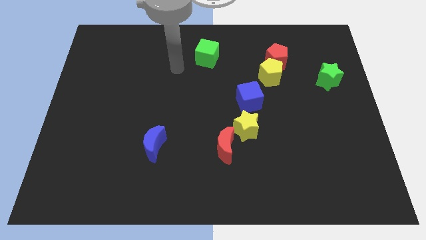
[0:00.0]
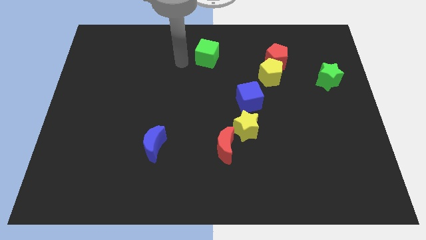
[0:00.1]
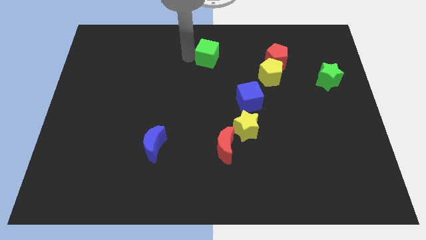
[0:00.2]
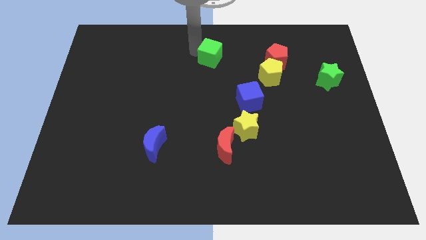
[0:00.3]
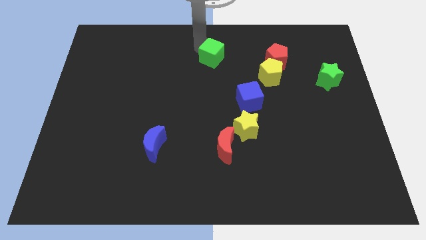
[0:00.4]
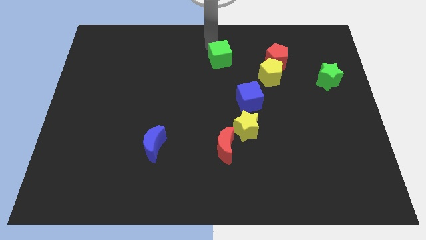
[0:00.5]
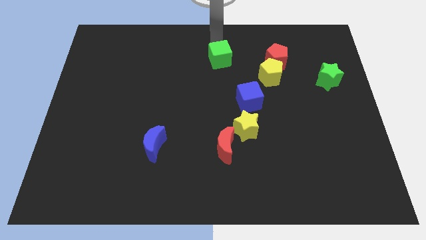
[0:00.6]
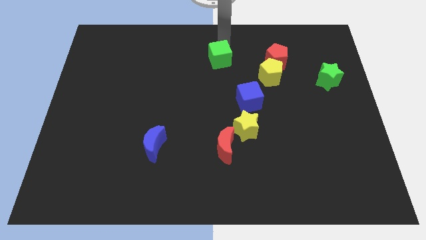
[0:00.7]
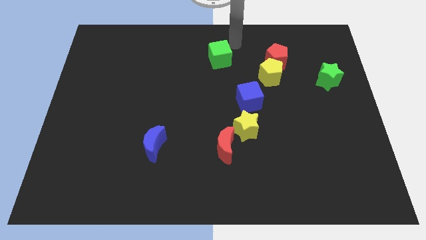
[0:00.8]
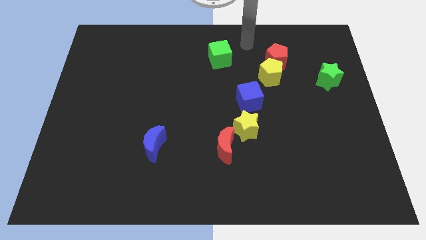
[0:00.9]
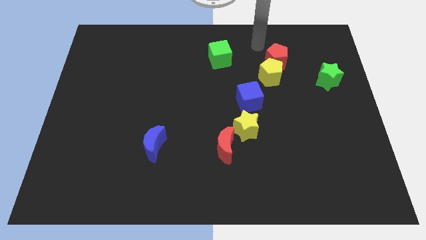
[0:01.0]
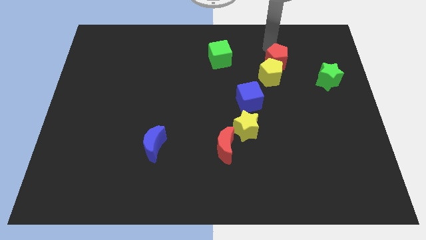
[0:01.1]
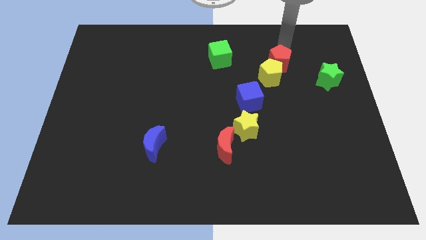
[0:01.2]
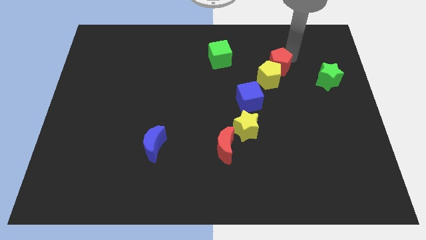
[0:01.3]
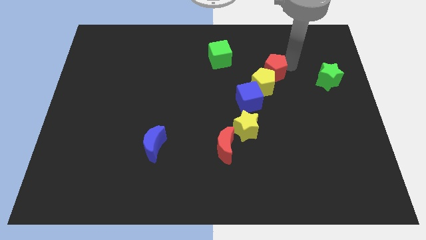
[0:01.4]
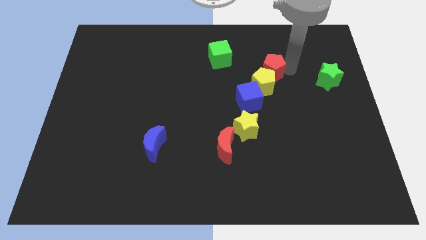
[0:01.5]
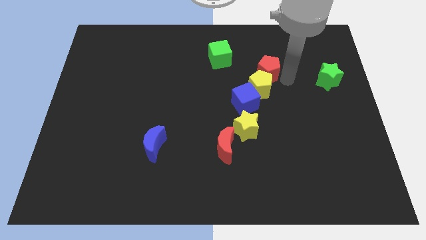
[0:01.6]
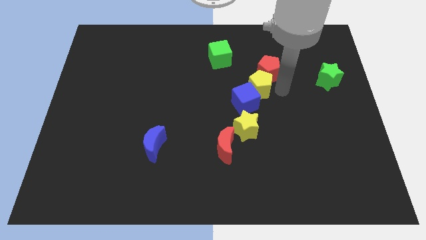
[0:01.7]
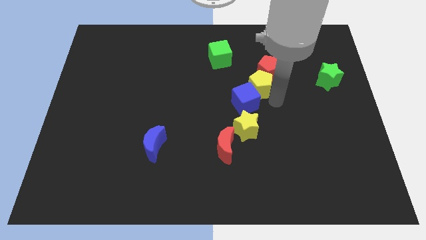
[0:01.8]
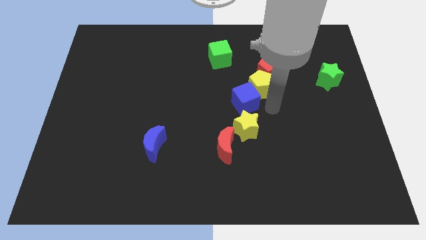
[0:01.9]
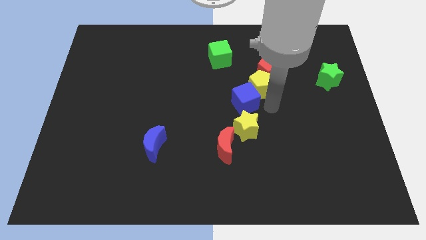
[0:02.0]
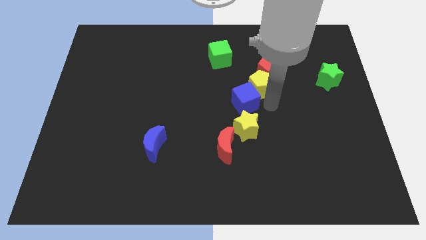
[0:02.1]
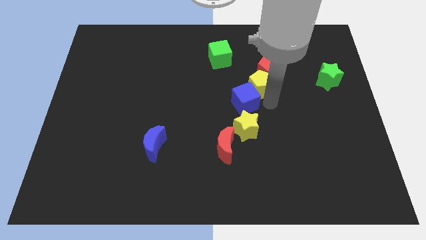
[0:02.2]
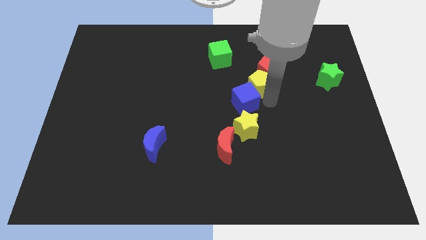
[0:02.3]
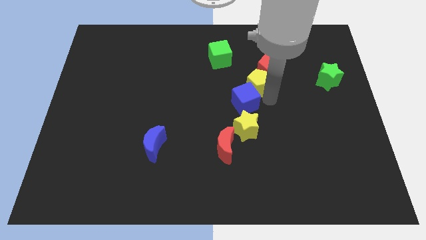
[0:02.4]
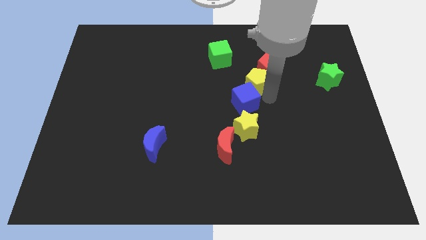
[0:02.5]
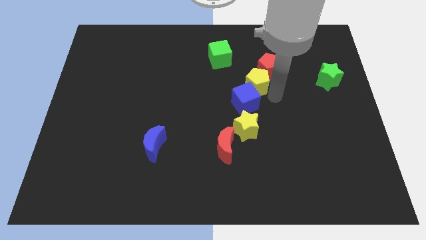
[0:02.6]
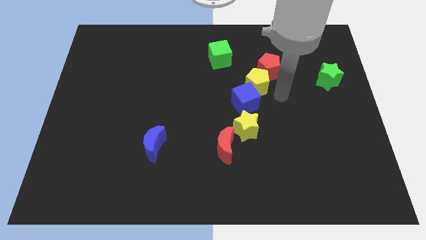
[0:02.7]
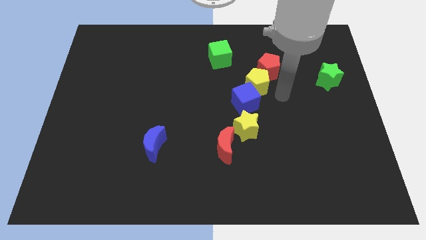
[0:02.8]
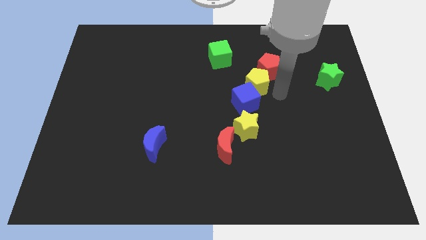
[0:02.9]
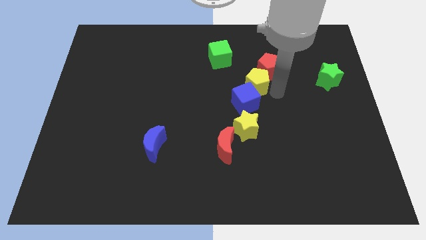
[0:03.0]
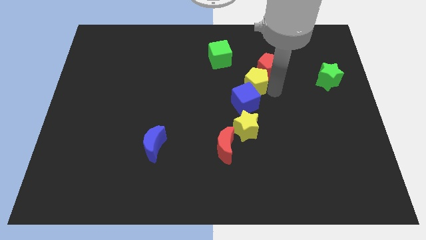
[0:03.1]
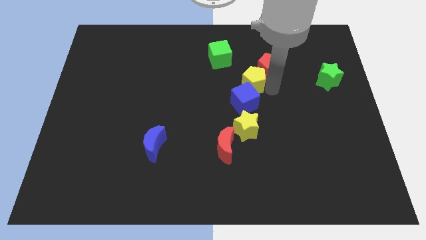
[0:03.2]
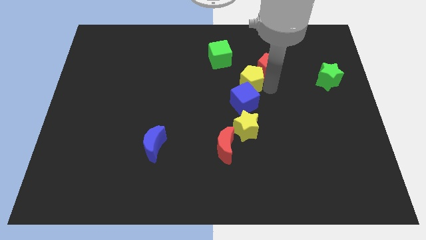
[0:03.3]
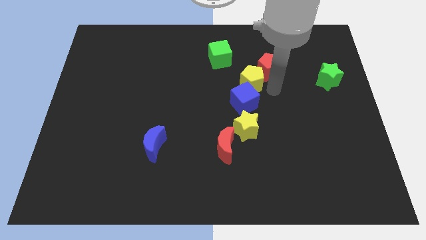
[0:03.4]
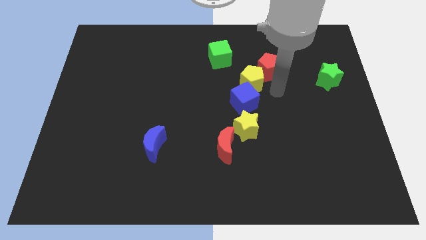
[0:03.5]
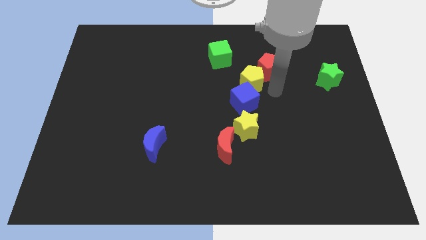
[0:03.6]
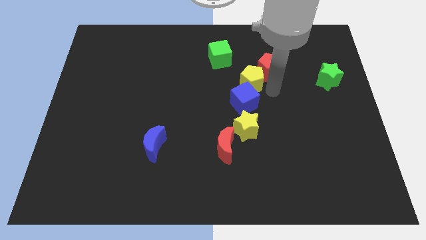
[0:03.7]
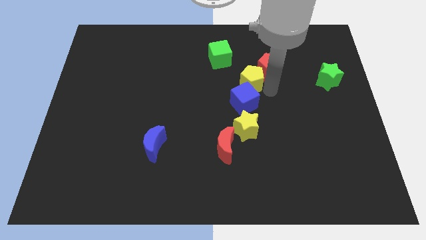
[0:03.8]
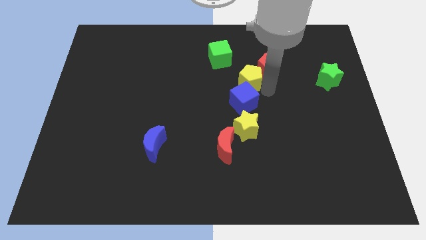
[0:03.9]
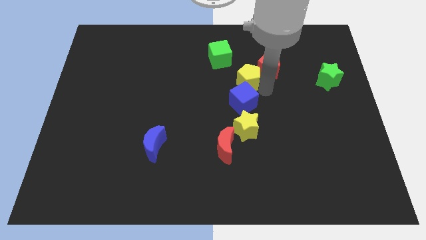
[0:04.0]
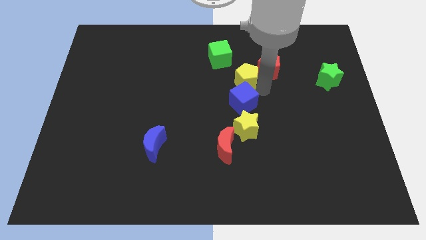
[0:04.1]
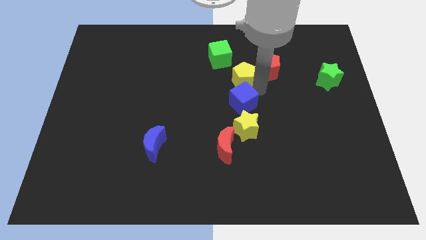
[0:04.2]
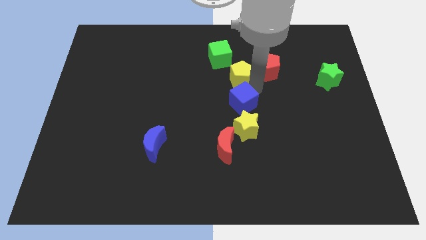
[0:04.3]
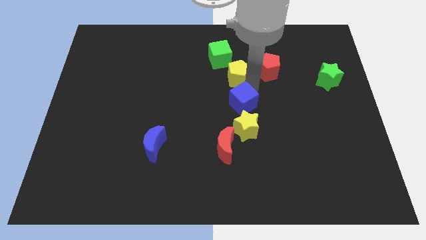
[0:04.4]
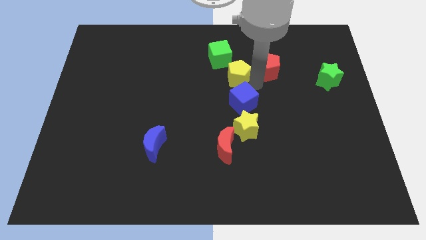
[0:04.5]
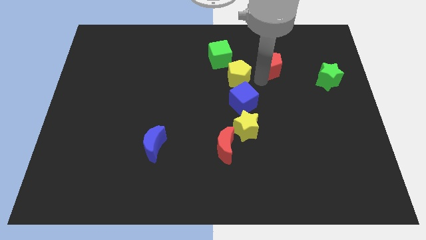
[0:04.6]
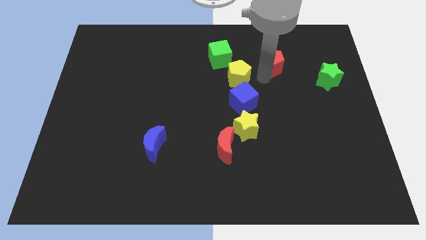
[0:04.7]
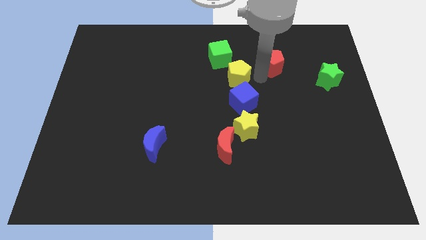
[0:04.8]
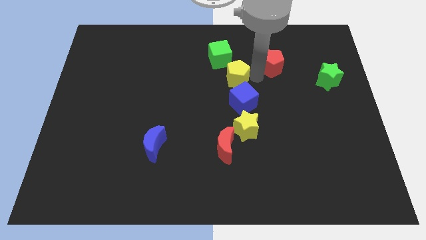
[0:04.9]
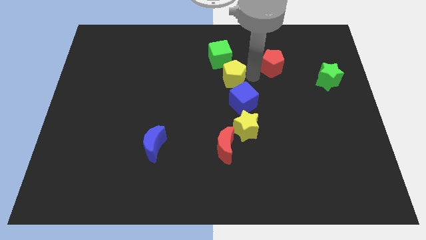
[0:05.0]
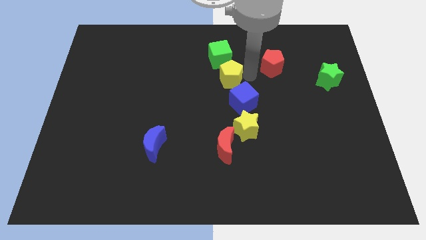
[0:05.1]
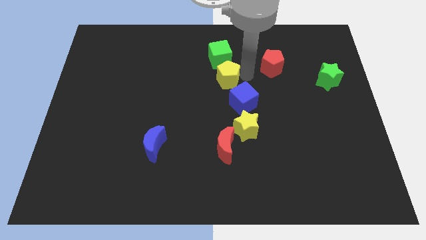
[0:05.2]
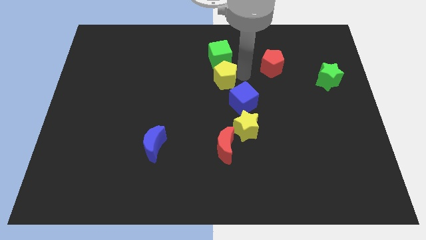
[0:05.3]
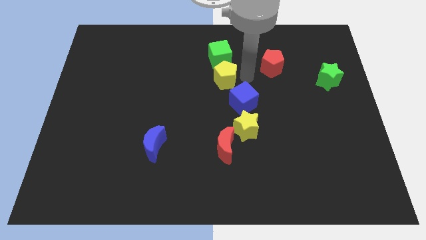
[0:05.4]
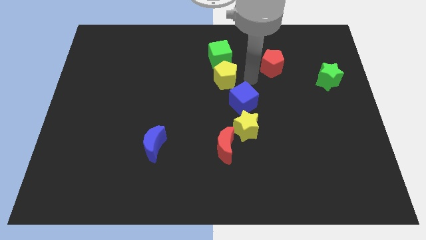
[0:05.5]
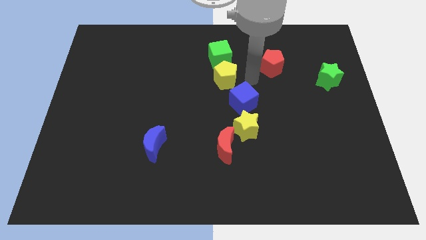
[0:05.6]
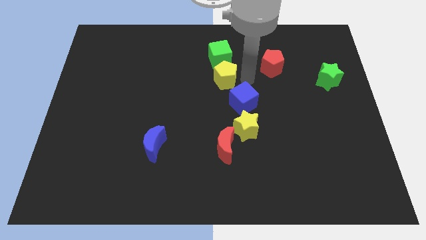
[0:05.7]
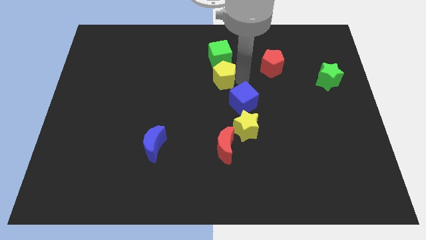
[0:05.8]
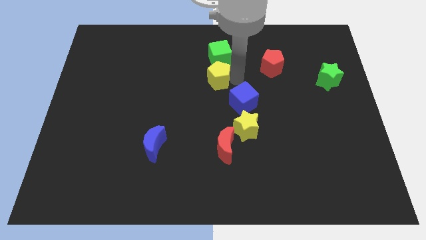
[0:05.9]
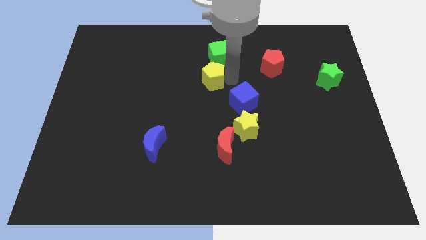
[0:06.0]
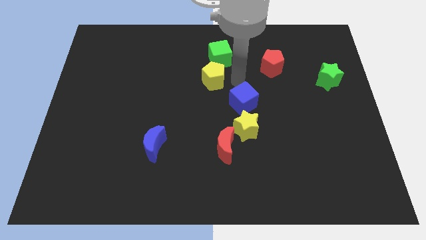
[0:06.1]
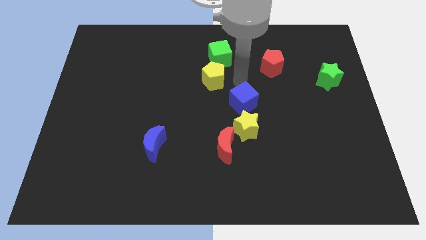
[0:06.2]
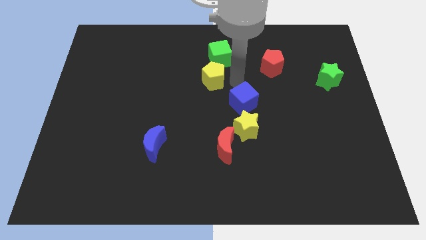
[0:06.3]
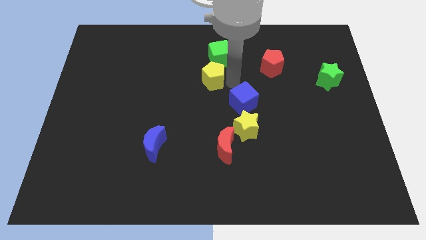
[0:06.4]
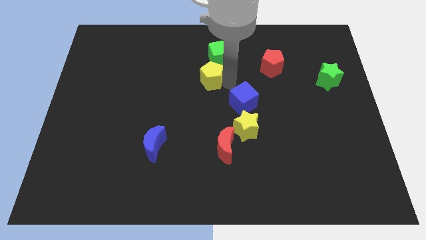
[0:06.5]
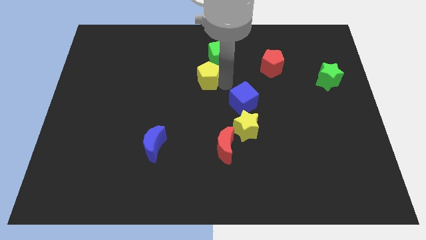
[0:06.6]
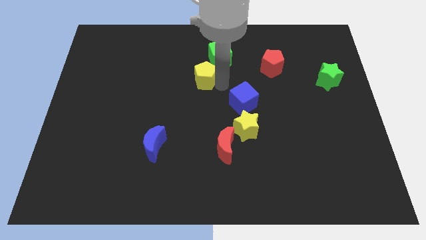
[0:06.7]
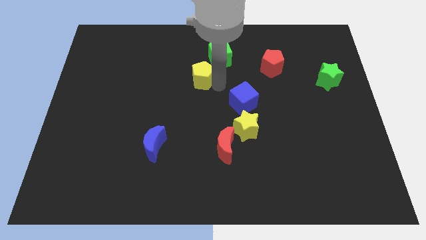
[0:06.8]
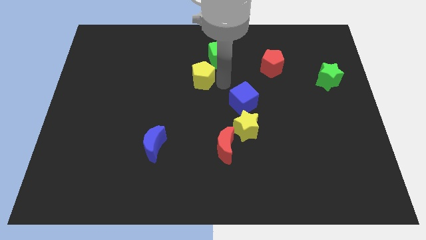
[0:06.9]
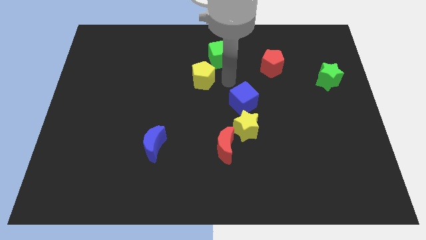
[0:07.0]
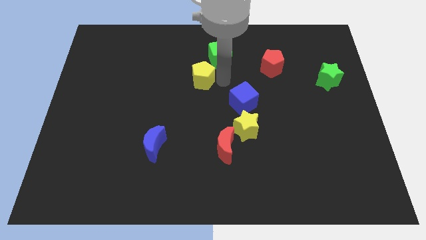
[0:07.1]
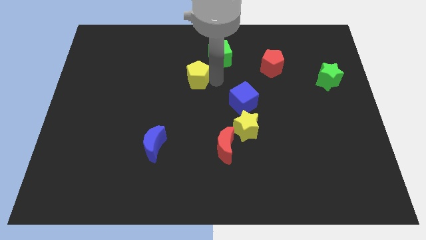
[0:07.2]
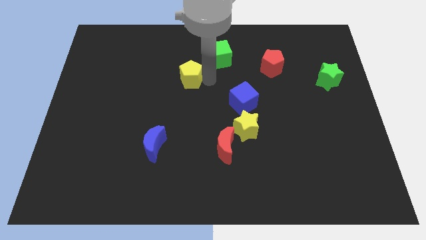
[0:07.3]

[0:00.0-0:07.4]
push the yellow pentagon left

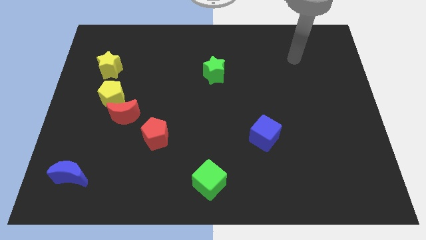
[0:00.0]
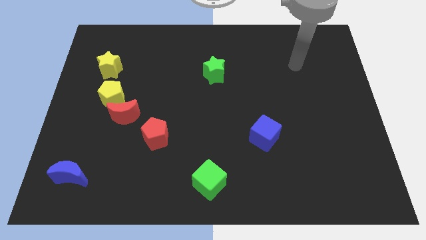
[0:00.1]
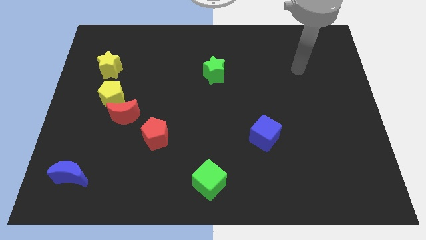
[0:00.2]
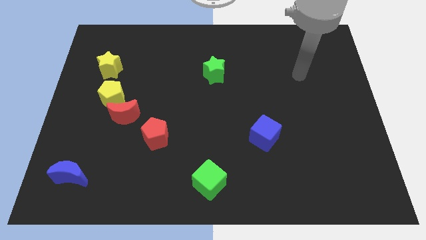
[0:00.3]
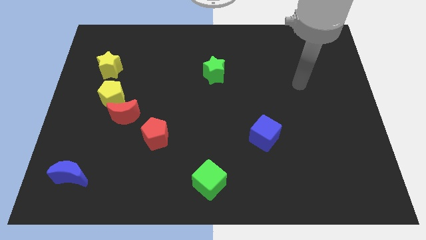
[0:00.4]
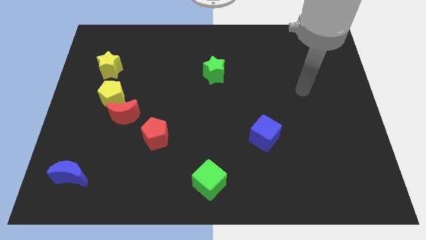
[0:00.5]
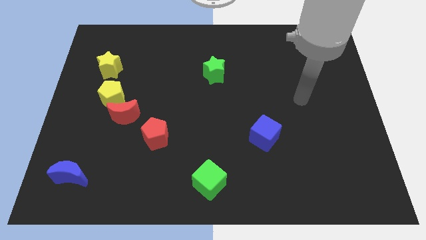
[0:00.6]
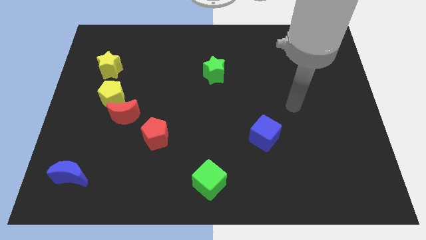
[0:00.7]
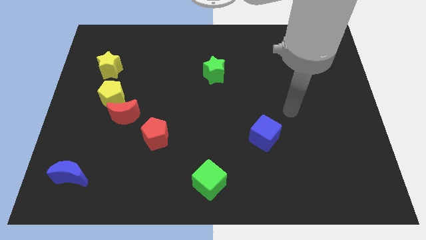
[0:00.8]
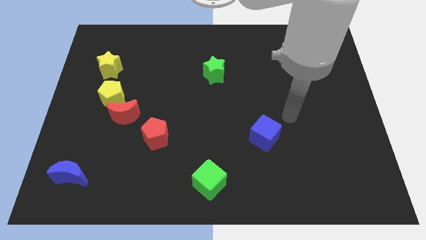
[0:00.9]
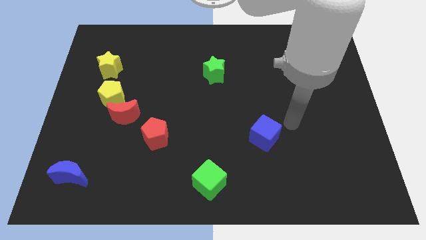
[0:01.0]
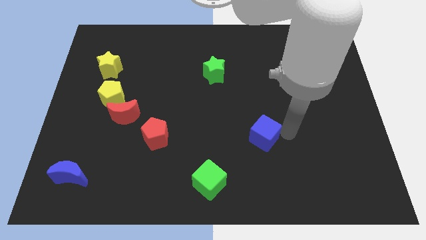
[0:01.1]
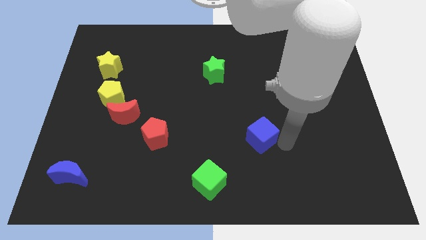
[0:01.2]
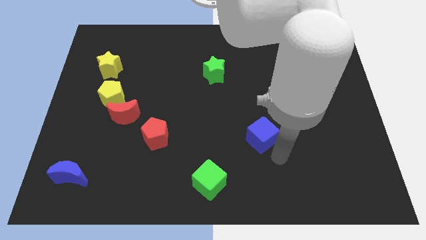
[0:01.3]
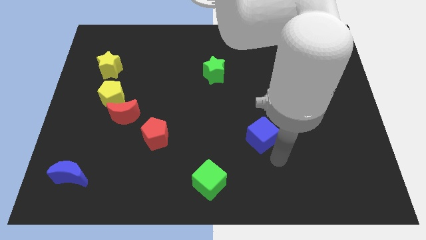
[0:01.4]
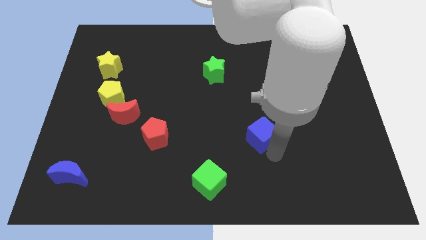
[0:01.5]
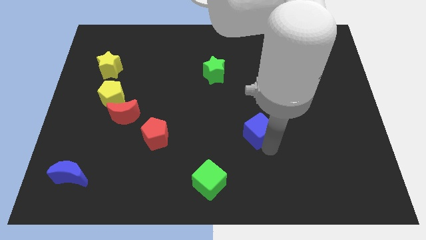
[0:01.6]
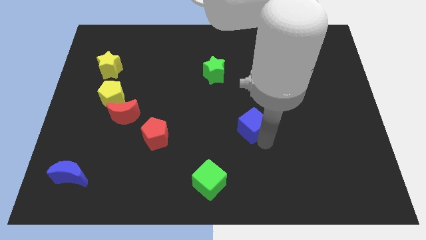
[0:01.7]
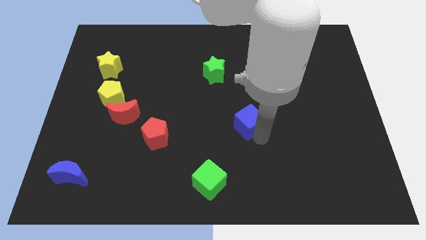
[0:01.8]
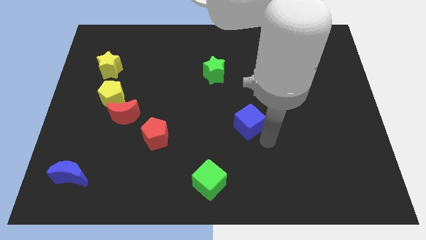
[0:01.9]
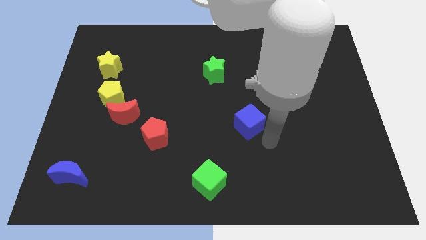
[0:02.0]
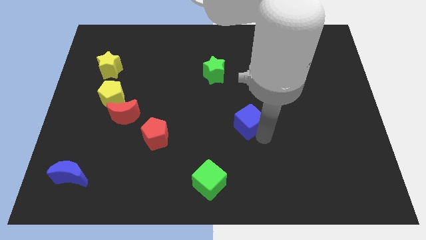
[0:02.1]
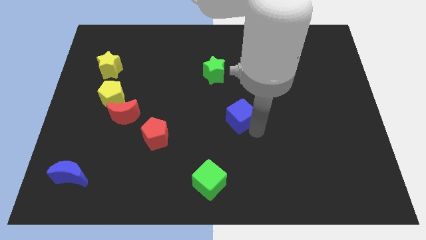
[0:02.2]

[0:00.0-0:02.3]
slide the blue cube a bit upwards and then left
